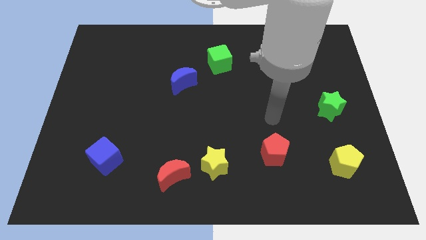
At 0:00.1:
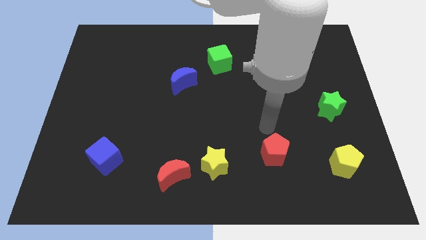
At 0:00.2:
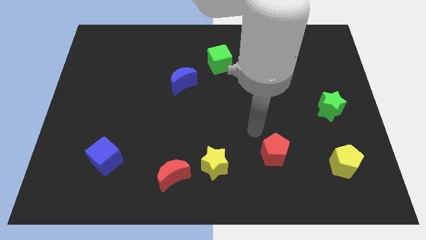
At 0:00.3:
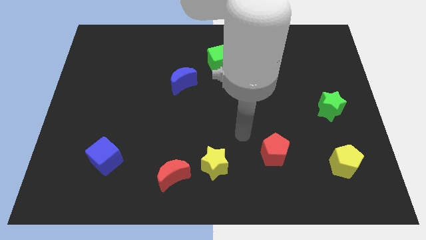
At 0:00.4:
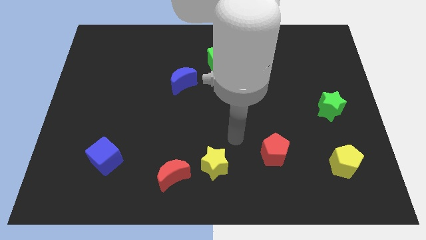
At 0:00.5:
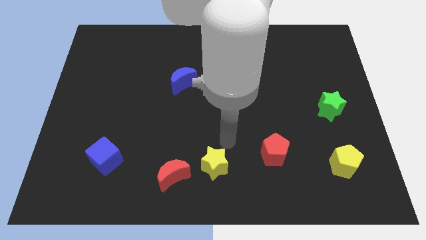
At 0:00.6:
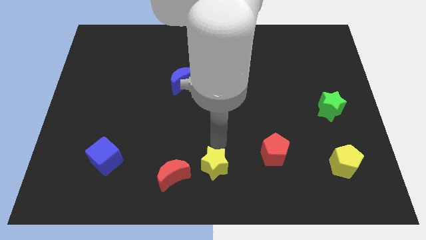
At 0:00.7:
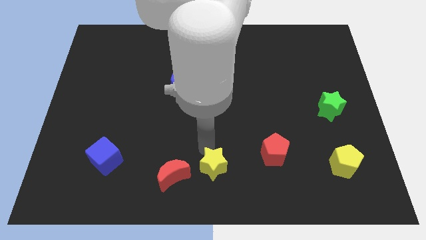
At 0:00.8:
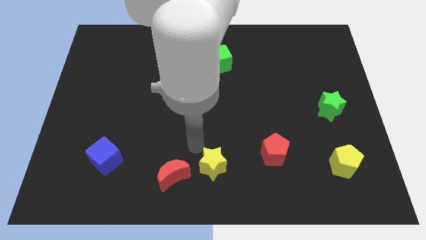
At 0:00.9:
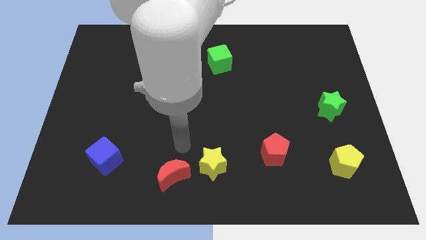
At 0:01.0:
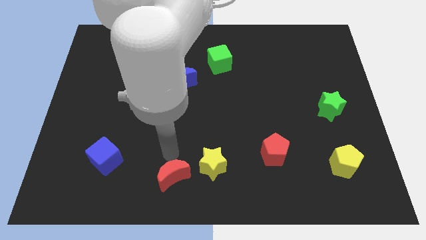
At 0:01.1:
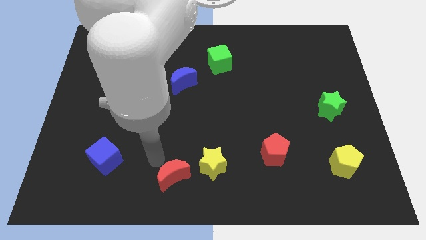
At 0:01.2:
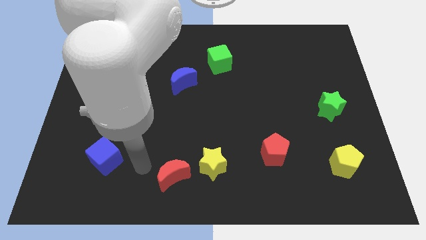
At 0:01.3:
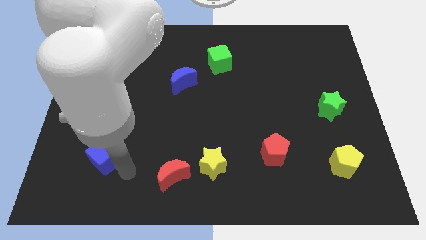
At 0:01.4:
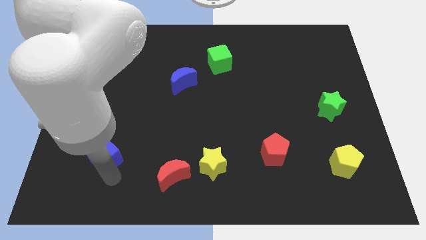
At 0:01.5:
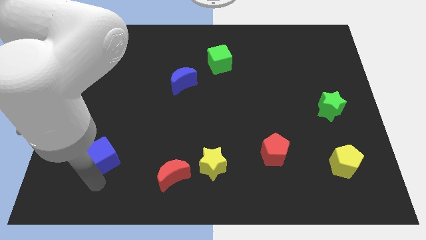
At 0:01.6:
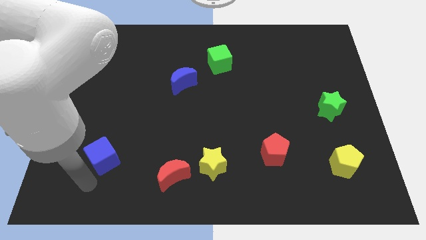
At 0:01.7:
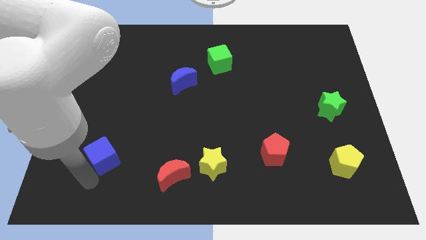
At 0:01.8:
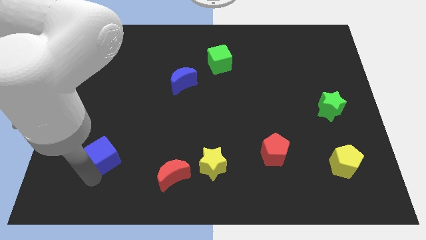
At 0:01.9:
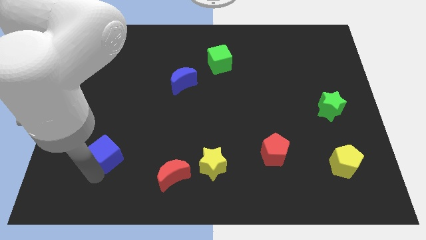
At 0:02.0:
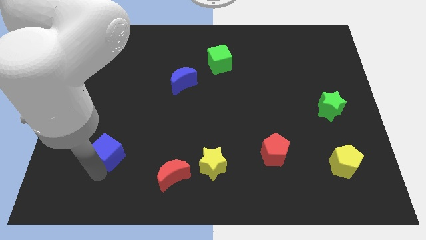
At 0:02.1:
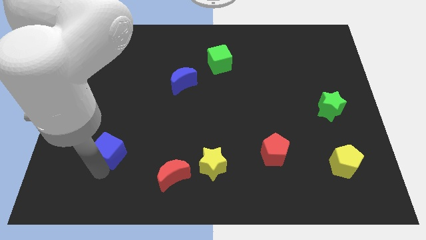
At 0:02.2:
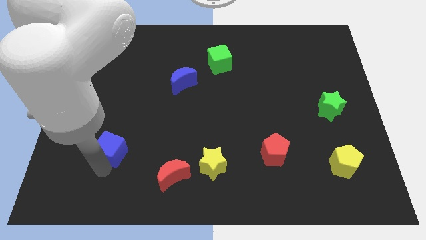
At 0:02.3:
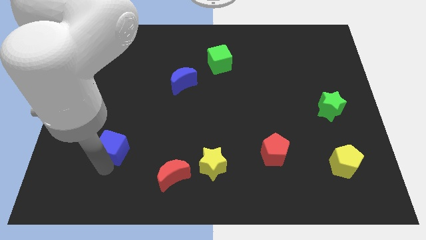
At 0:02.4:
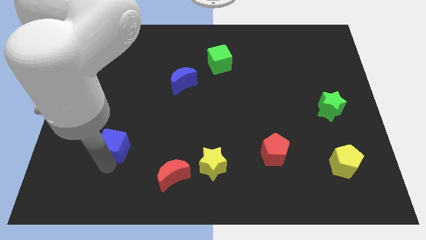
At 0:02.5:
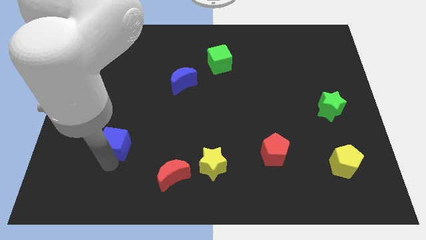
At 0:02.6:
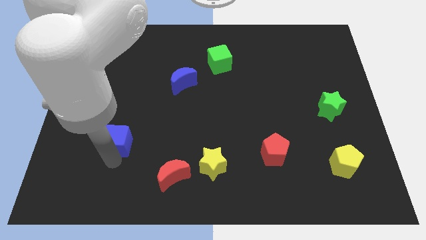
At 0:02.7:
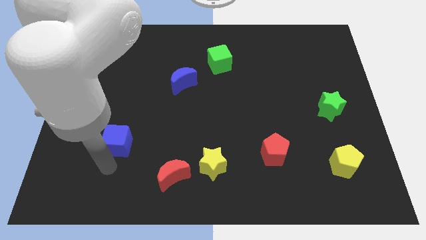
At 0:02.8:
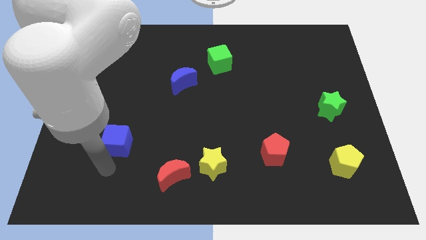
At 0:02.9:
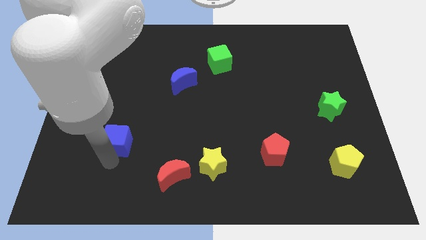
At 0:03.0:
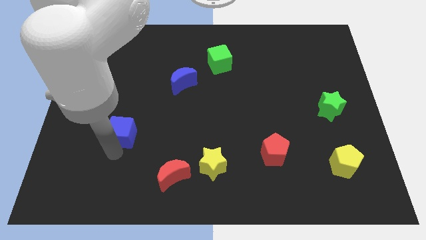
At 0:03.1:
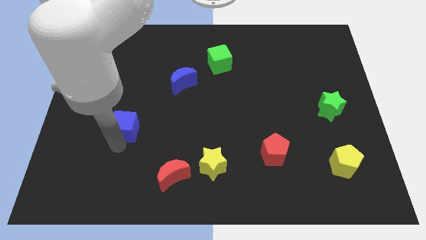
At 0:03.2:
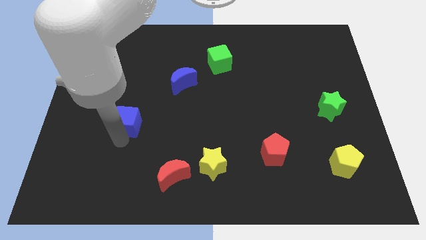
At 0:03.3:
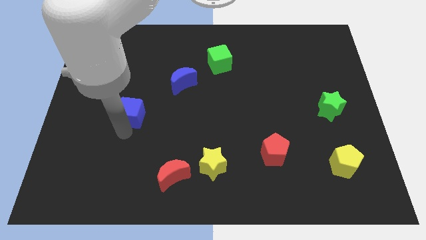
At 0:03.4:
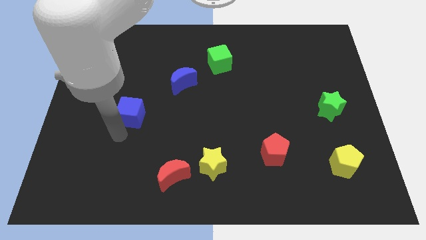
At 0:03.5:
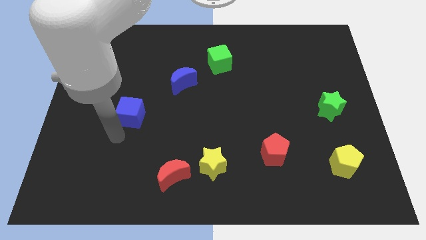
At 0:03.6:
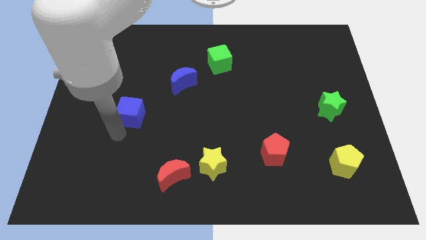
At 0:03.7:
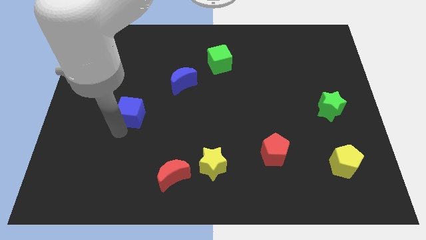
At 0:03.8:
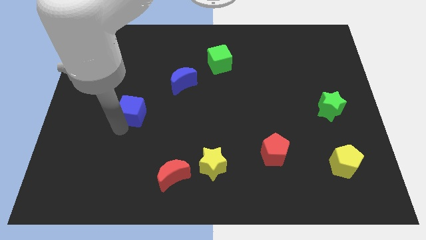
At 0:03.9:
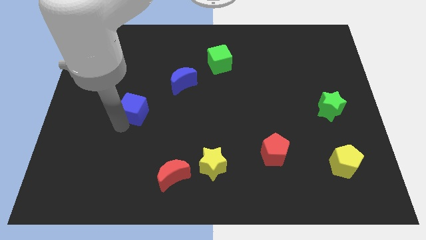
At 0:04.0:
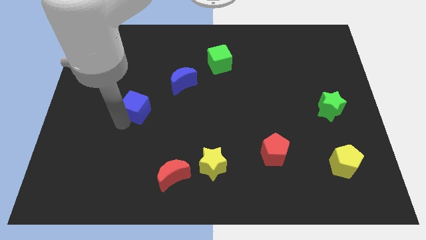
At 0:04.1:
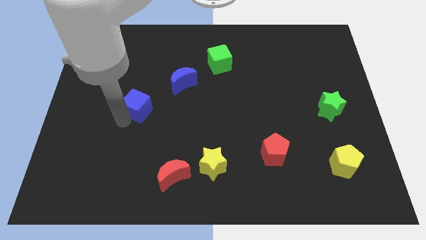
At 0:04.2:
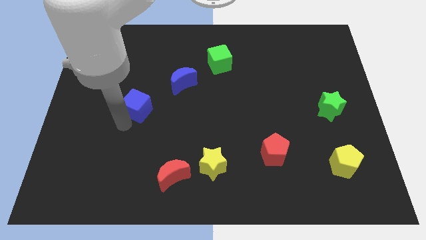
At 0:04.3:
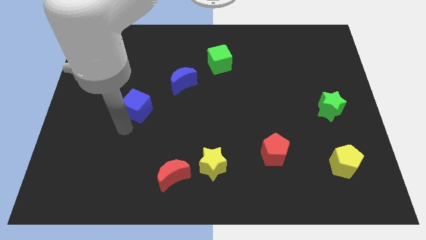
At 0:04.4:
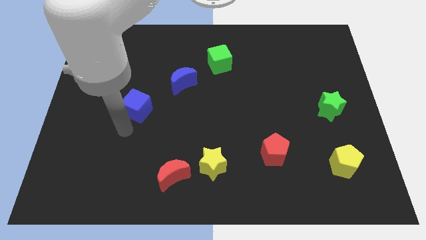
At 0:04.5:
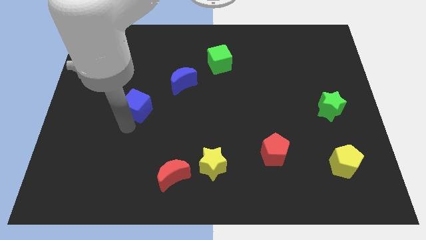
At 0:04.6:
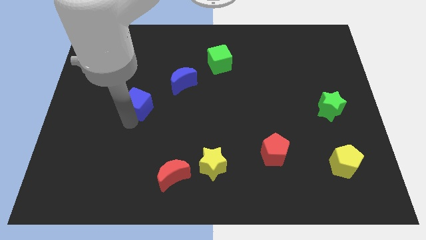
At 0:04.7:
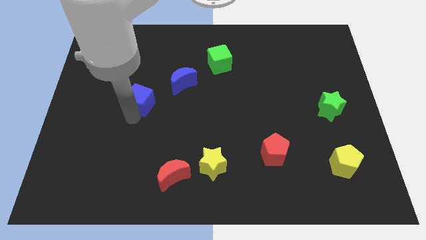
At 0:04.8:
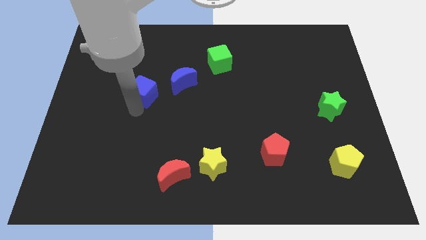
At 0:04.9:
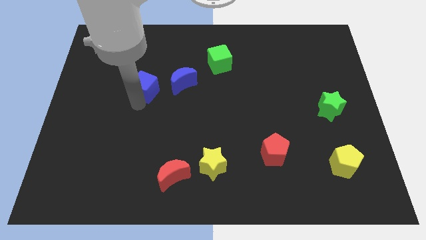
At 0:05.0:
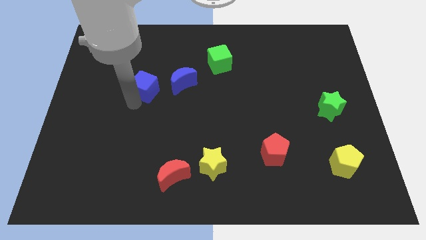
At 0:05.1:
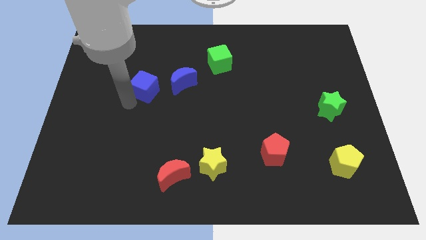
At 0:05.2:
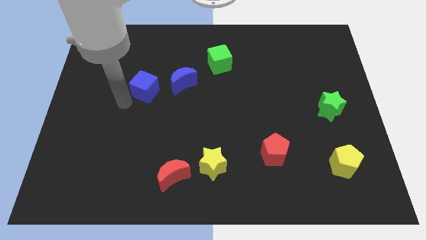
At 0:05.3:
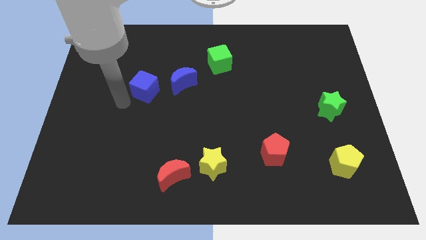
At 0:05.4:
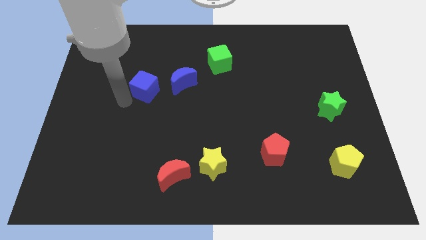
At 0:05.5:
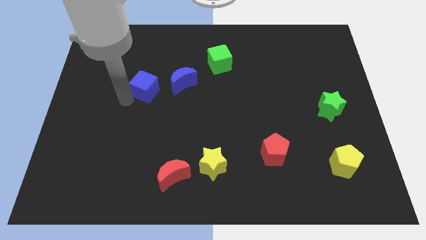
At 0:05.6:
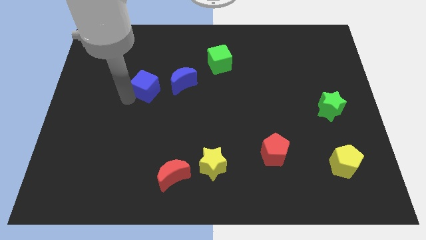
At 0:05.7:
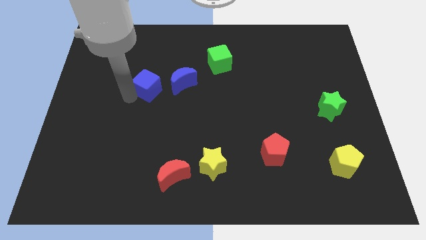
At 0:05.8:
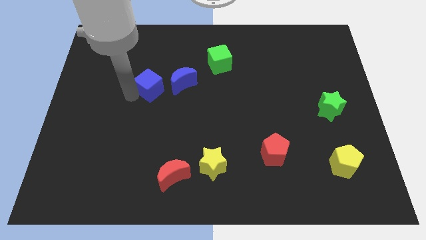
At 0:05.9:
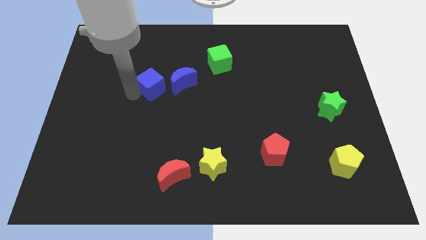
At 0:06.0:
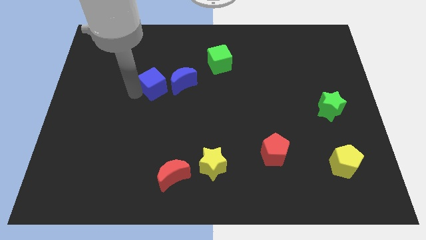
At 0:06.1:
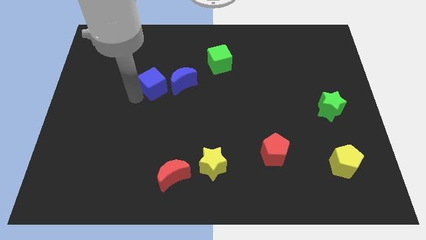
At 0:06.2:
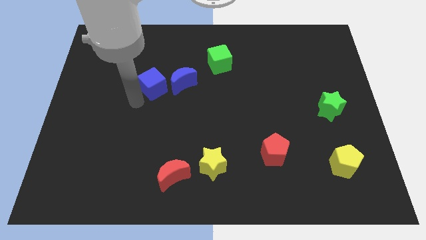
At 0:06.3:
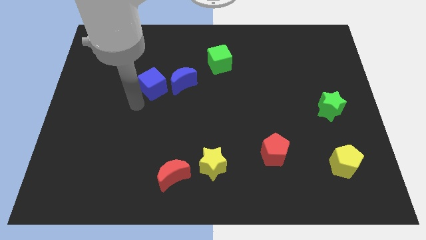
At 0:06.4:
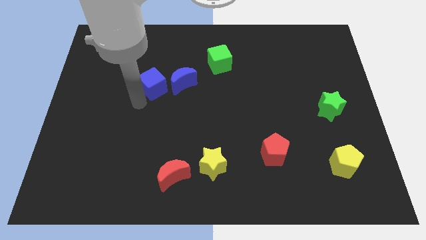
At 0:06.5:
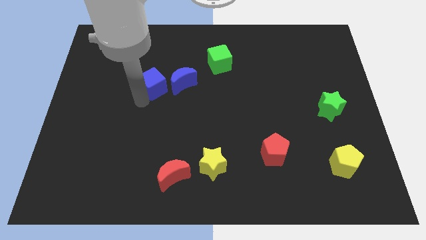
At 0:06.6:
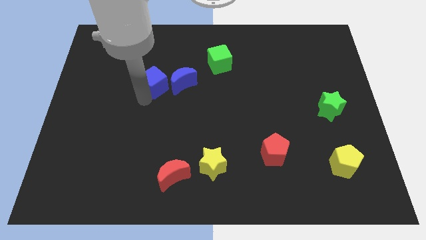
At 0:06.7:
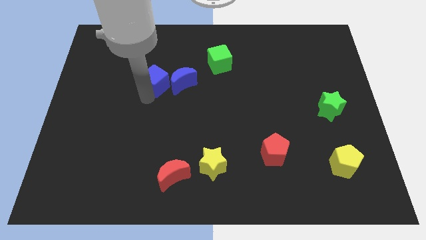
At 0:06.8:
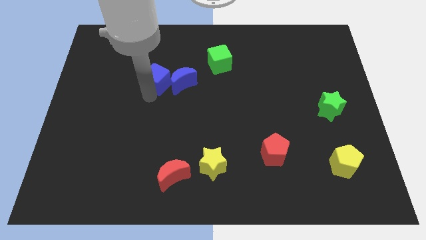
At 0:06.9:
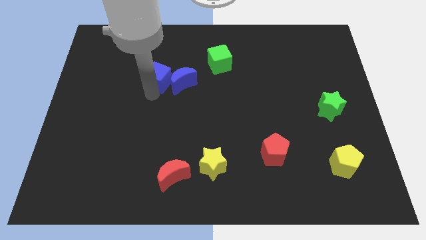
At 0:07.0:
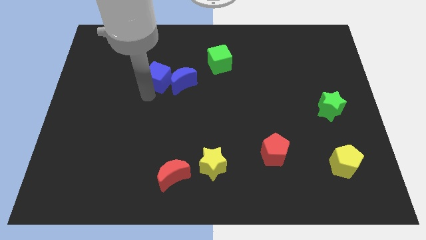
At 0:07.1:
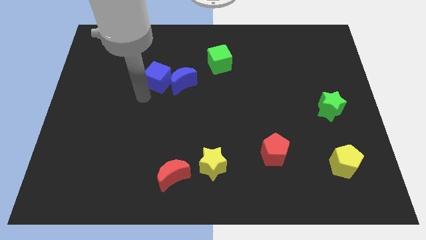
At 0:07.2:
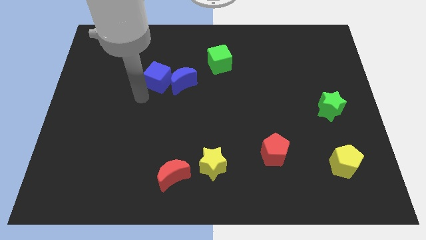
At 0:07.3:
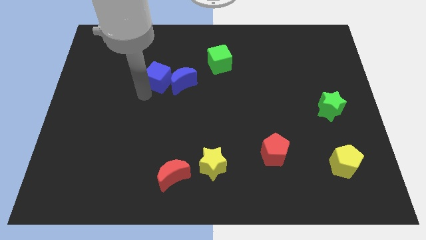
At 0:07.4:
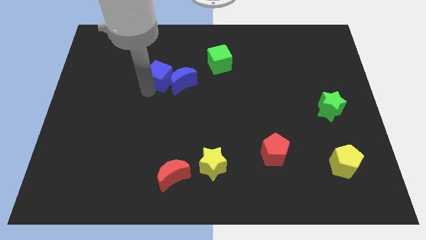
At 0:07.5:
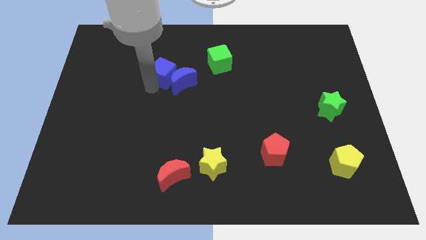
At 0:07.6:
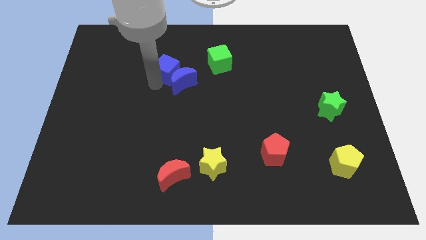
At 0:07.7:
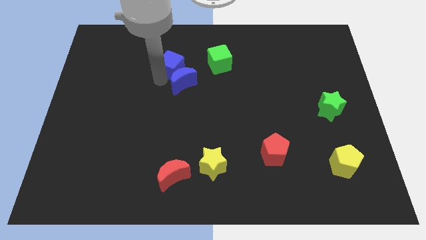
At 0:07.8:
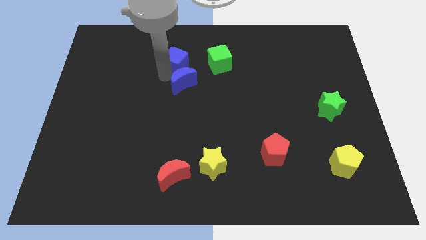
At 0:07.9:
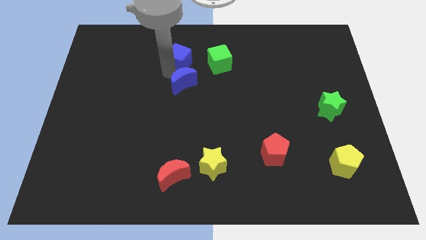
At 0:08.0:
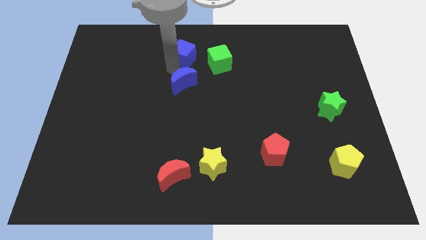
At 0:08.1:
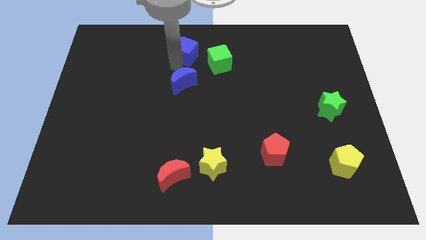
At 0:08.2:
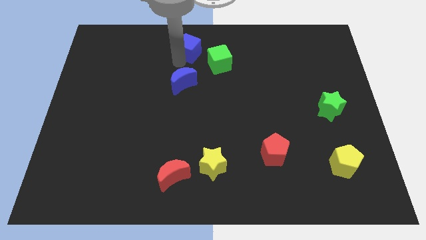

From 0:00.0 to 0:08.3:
move the blue cube to the towards your base
